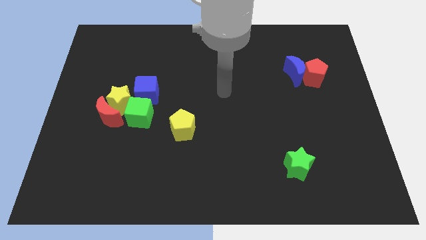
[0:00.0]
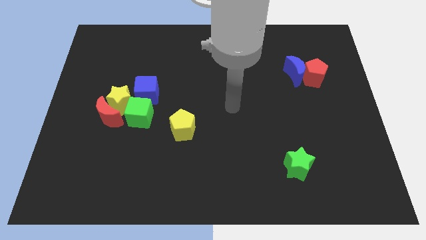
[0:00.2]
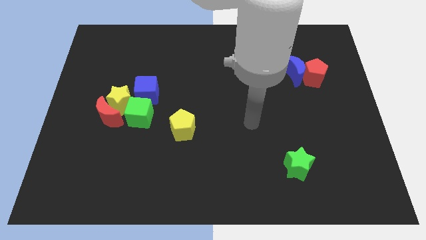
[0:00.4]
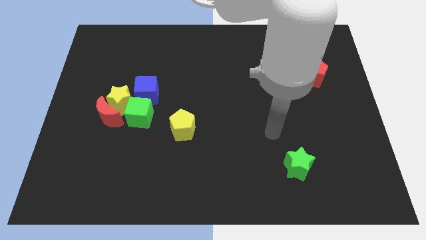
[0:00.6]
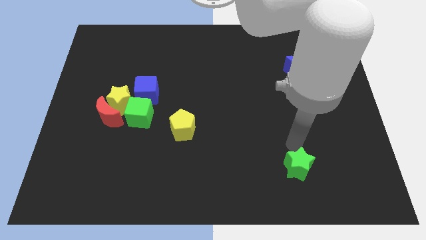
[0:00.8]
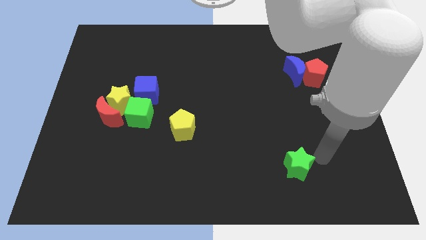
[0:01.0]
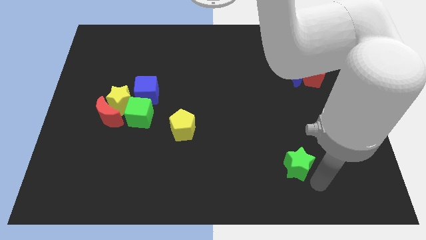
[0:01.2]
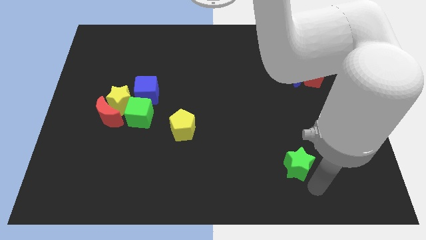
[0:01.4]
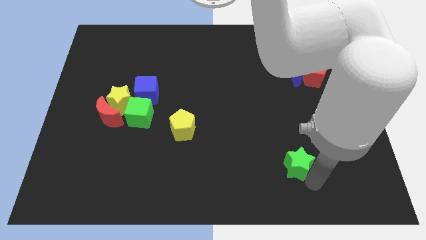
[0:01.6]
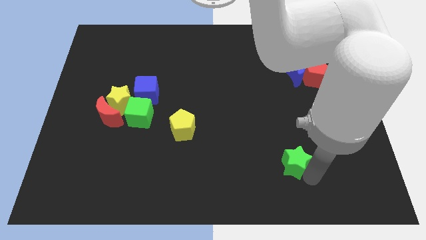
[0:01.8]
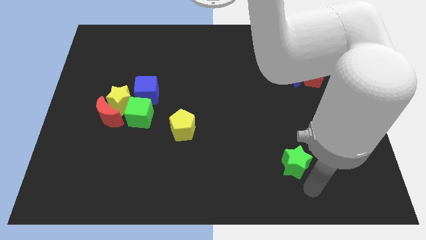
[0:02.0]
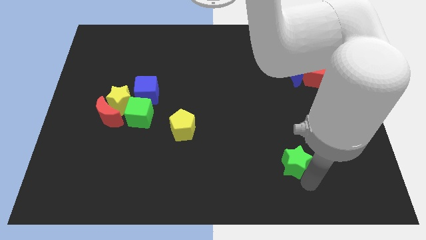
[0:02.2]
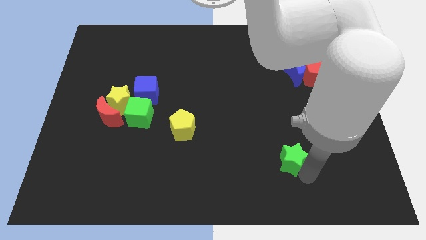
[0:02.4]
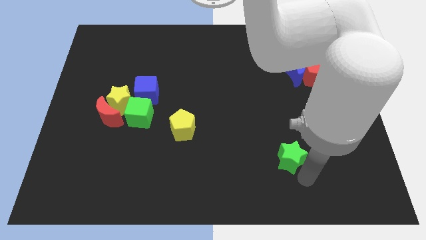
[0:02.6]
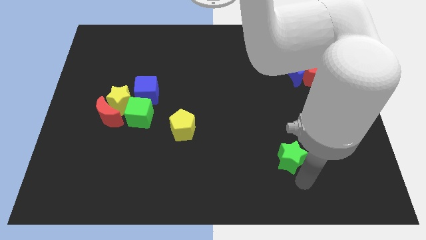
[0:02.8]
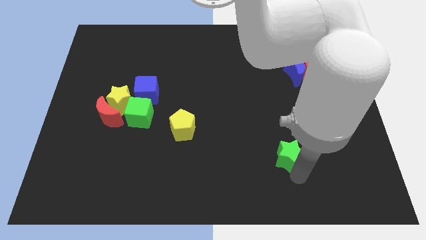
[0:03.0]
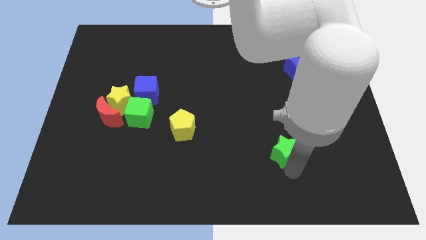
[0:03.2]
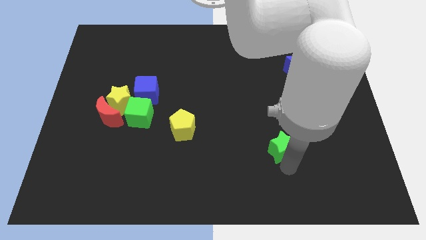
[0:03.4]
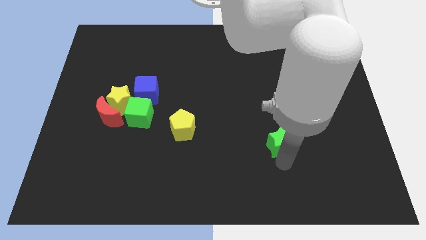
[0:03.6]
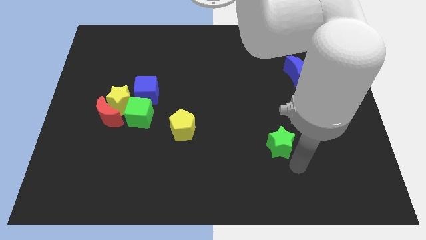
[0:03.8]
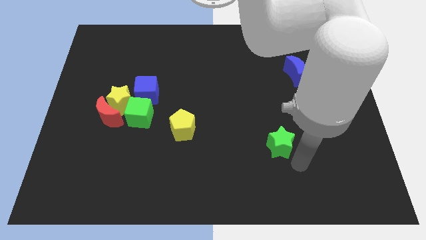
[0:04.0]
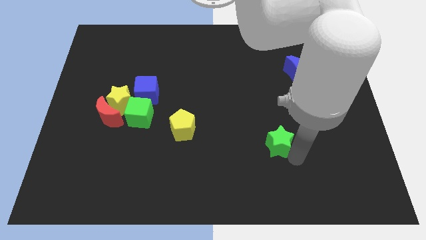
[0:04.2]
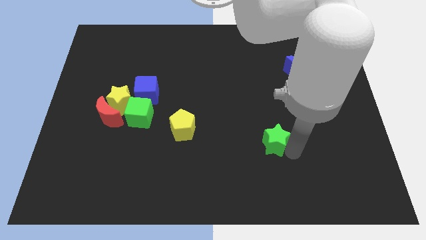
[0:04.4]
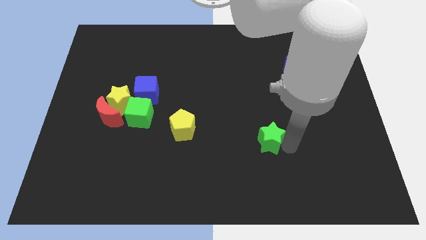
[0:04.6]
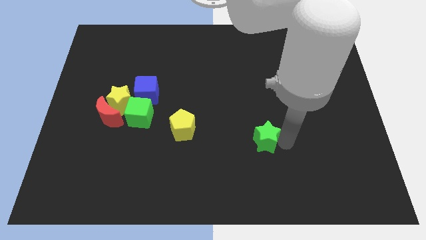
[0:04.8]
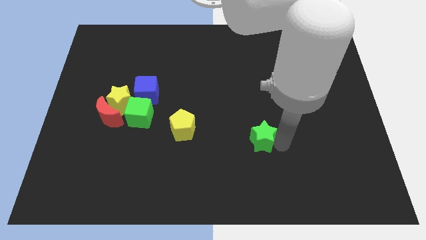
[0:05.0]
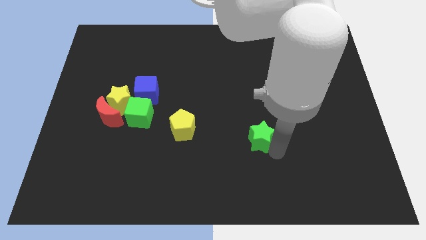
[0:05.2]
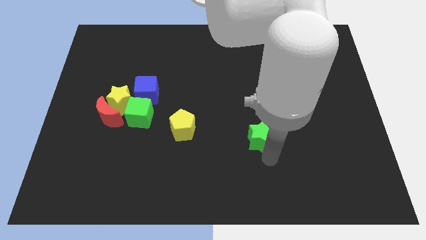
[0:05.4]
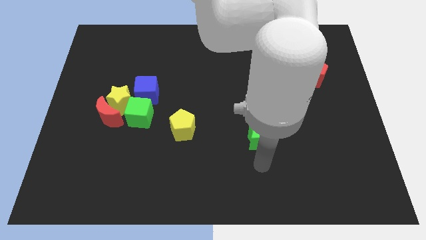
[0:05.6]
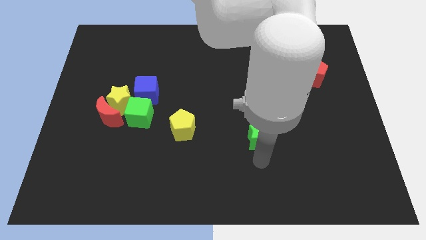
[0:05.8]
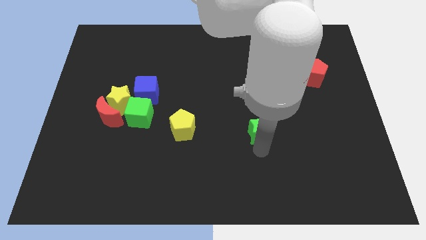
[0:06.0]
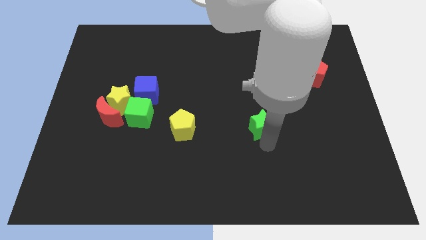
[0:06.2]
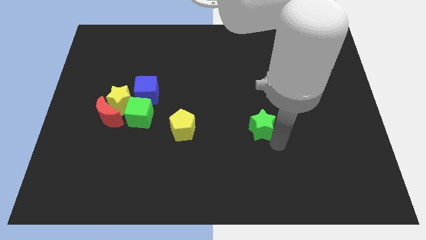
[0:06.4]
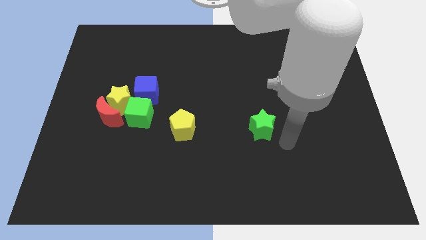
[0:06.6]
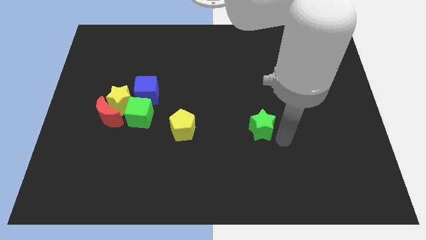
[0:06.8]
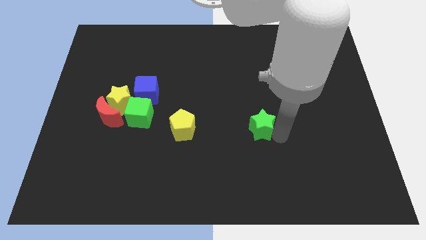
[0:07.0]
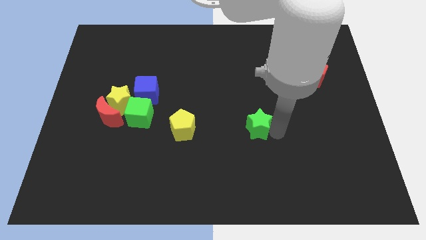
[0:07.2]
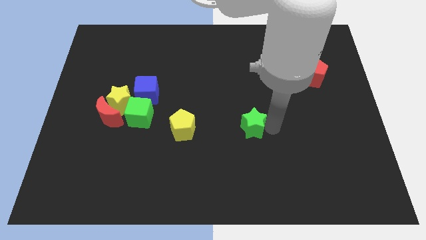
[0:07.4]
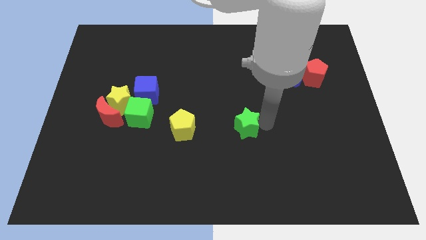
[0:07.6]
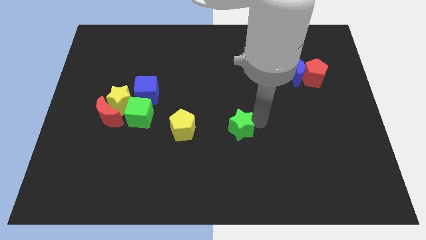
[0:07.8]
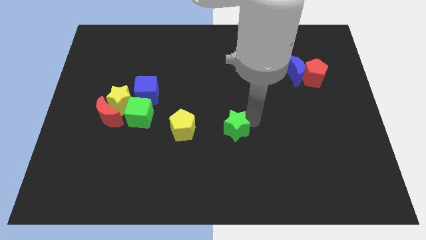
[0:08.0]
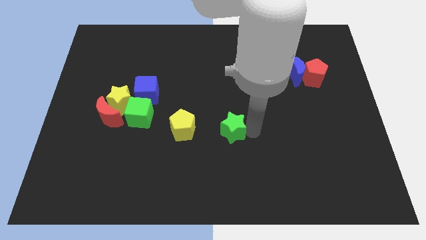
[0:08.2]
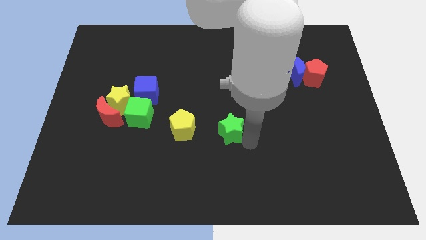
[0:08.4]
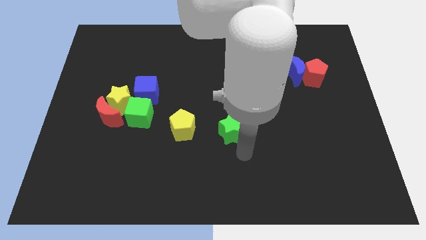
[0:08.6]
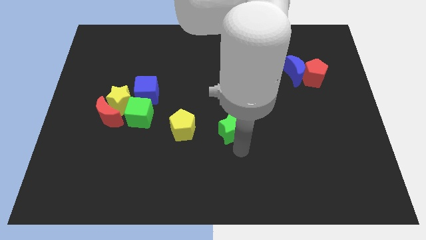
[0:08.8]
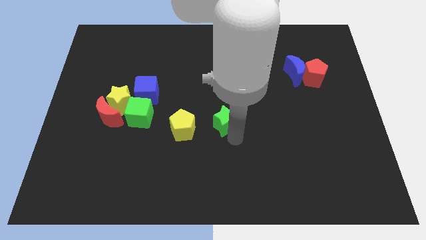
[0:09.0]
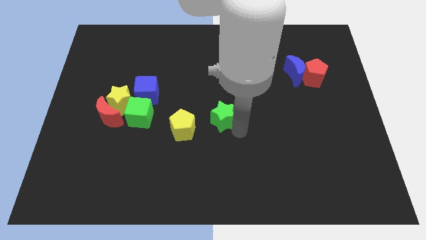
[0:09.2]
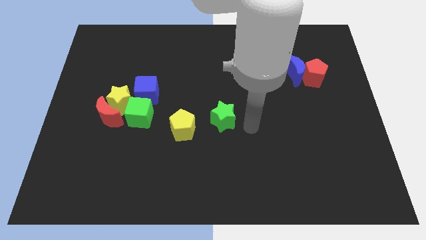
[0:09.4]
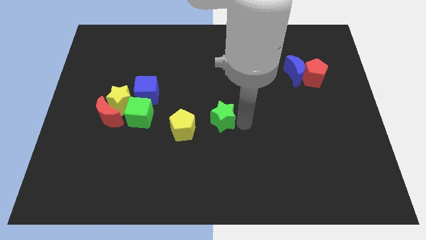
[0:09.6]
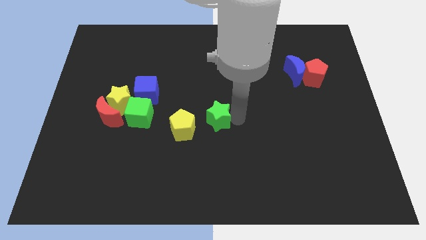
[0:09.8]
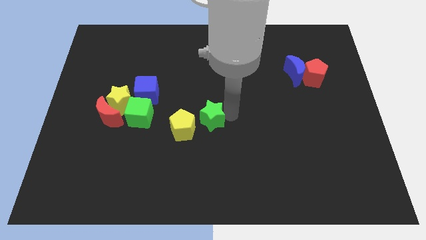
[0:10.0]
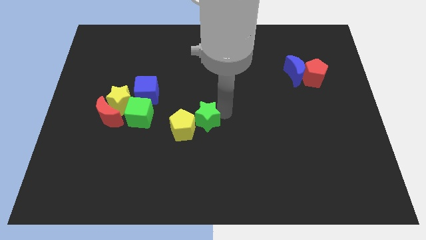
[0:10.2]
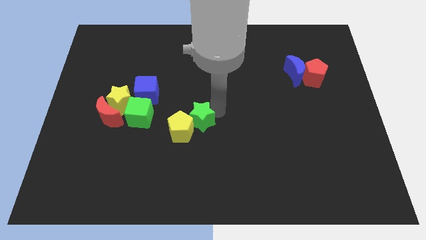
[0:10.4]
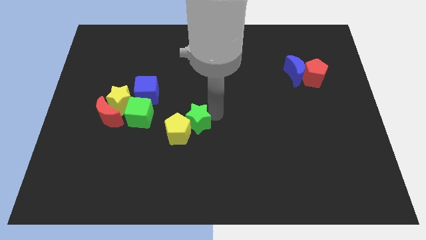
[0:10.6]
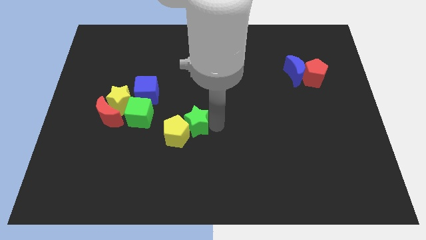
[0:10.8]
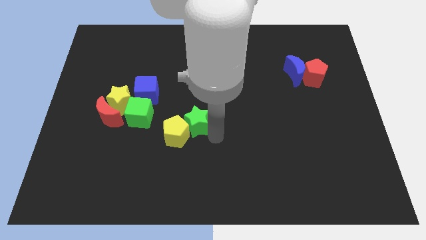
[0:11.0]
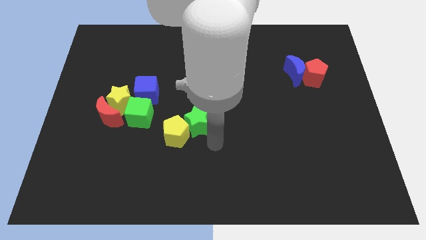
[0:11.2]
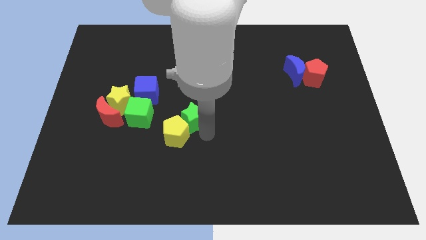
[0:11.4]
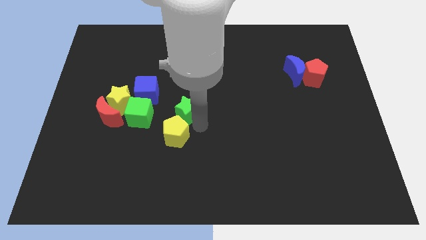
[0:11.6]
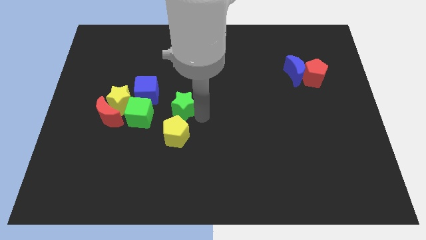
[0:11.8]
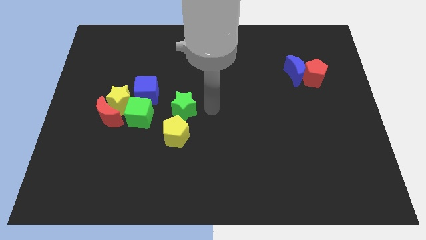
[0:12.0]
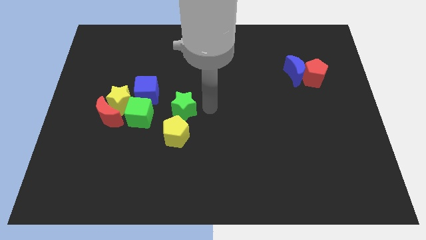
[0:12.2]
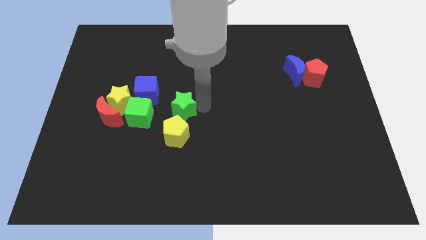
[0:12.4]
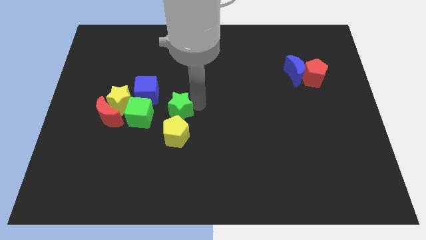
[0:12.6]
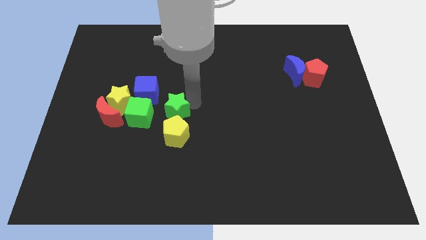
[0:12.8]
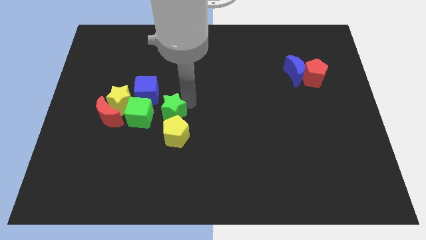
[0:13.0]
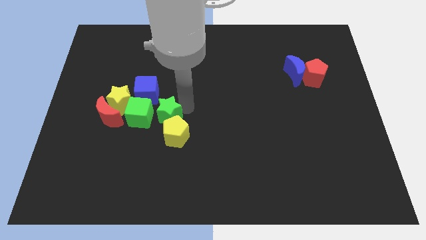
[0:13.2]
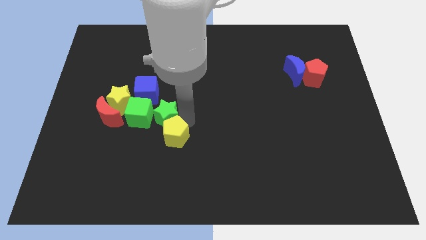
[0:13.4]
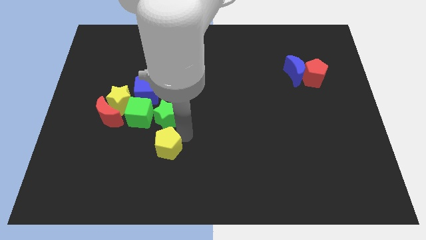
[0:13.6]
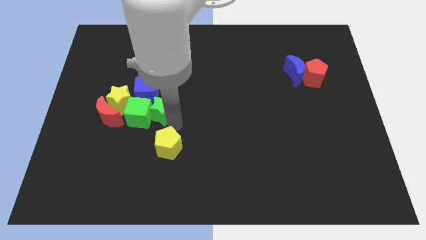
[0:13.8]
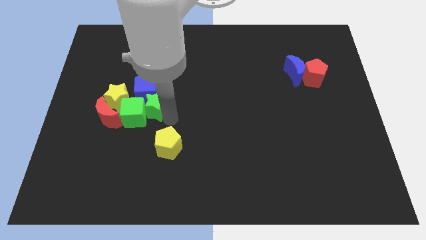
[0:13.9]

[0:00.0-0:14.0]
put the green star next to the blue cube
